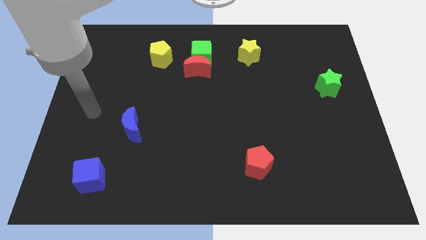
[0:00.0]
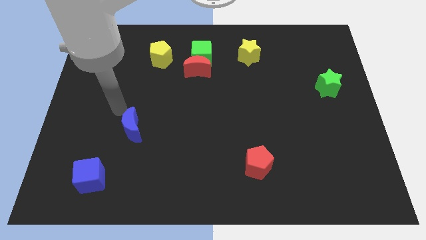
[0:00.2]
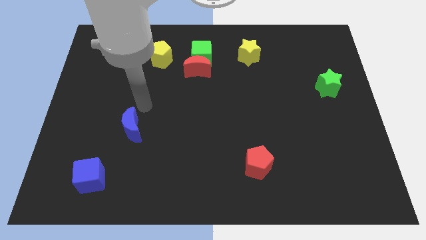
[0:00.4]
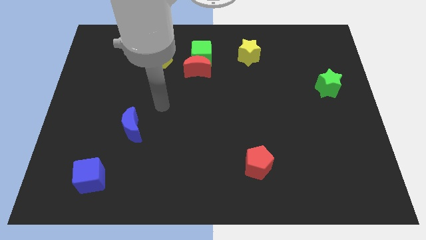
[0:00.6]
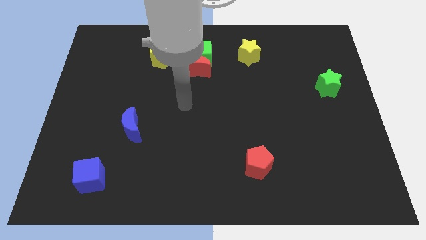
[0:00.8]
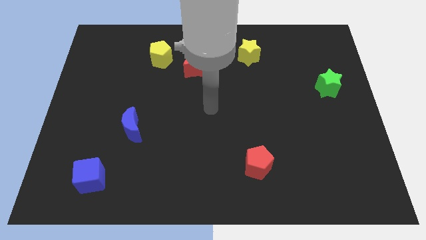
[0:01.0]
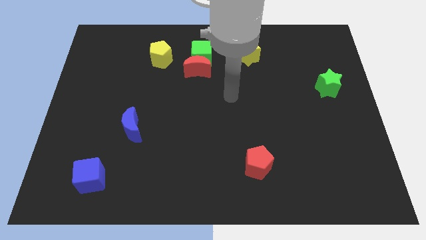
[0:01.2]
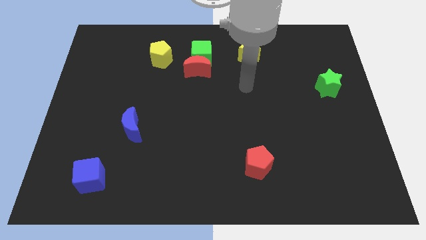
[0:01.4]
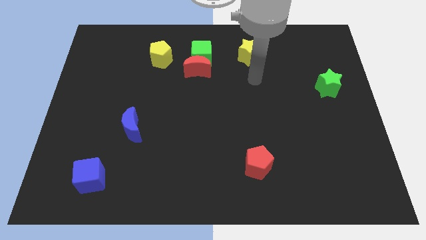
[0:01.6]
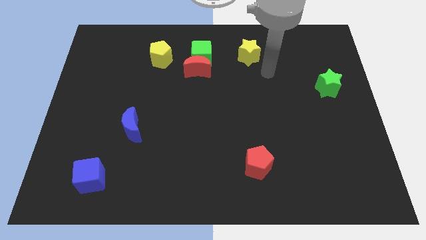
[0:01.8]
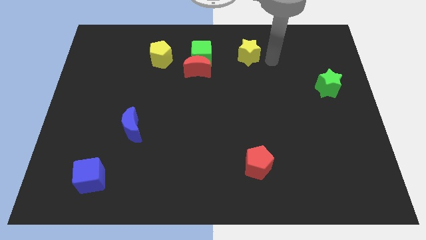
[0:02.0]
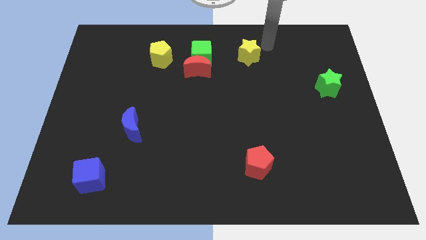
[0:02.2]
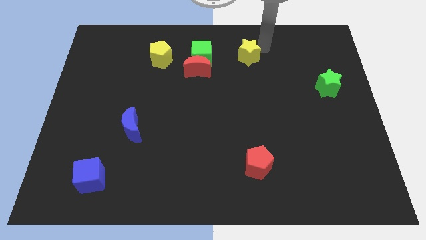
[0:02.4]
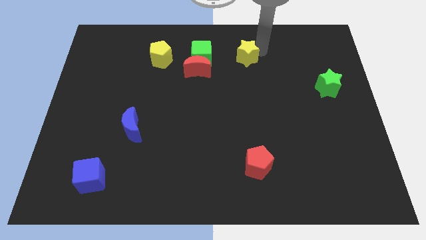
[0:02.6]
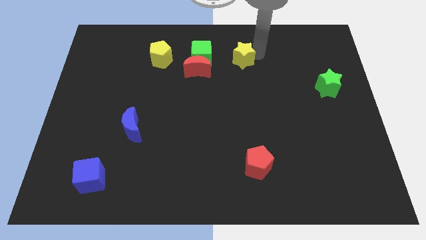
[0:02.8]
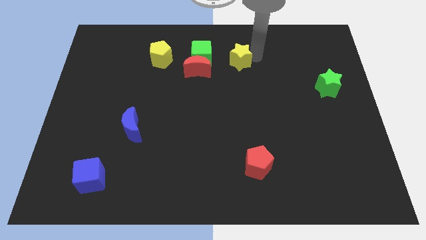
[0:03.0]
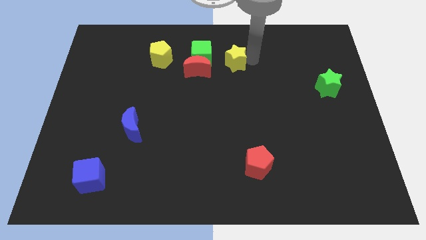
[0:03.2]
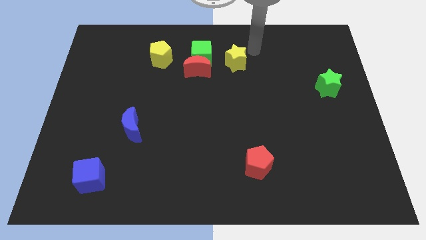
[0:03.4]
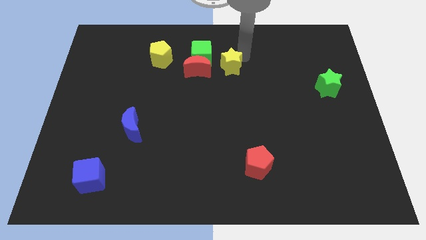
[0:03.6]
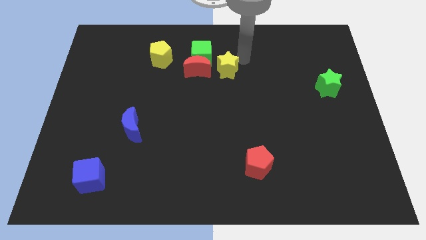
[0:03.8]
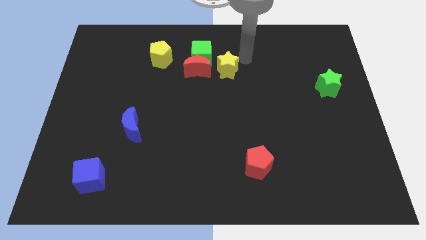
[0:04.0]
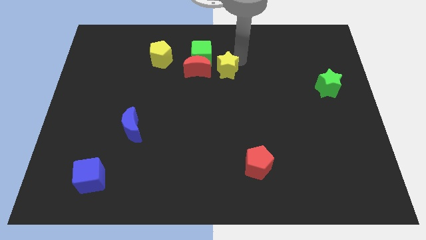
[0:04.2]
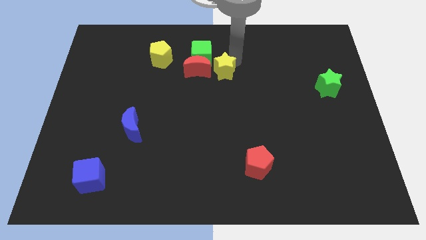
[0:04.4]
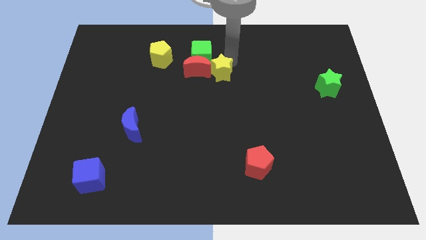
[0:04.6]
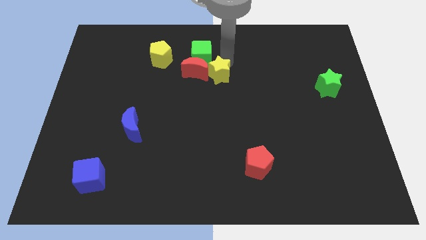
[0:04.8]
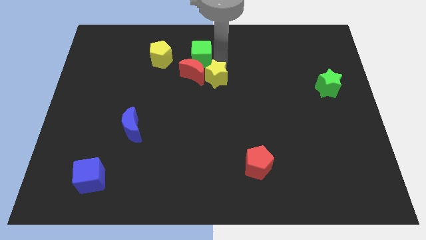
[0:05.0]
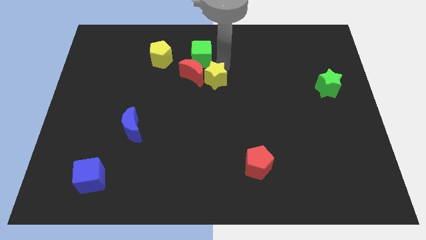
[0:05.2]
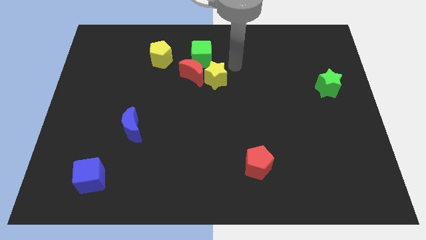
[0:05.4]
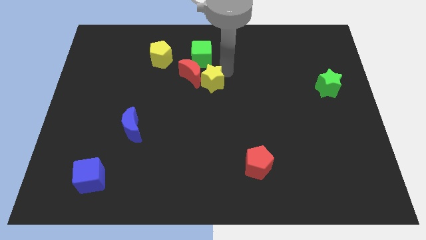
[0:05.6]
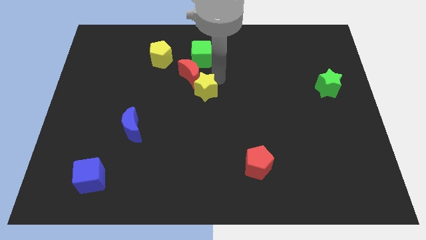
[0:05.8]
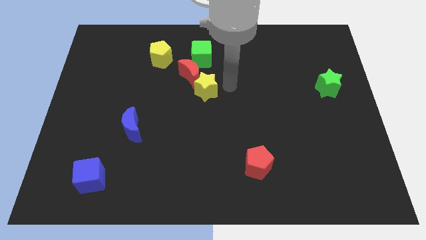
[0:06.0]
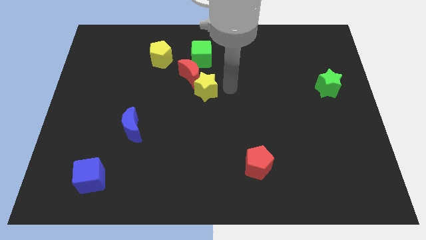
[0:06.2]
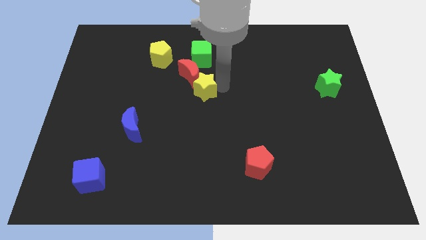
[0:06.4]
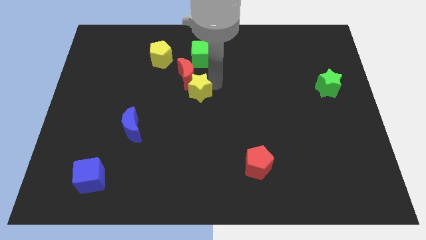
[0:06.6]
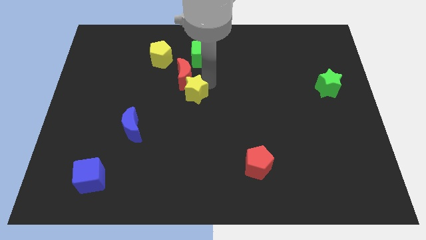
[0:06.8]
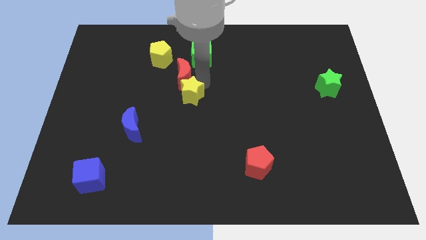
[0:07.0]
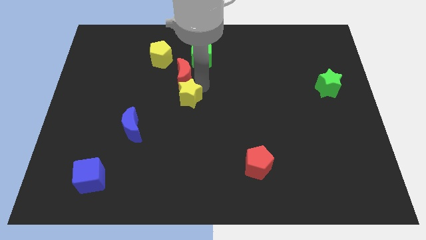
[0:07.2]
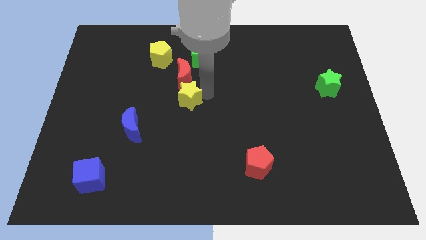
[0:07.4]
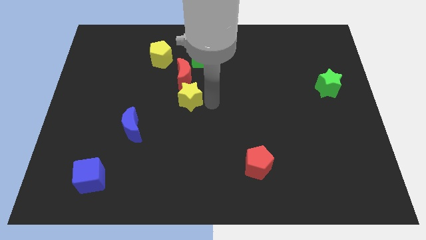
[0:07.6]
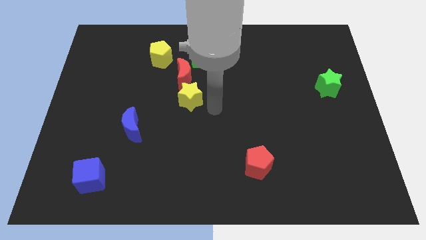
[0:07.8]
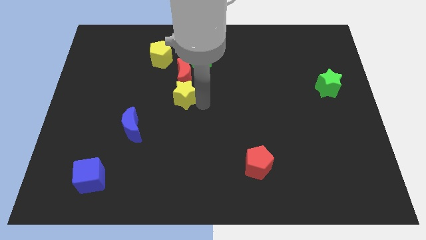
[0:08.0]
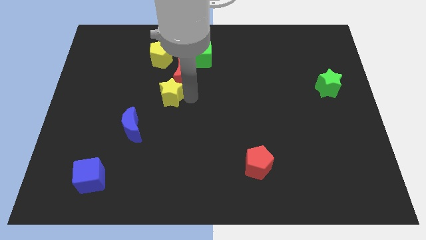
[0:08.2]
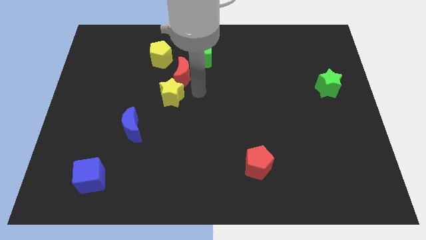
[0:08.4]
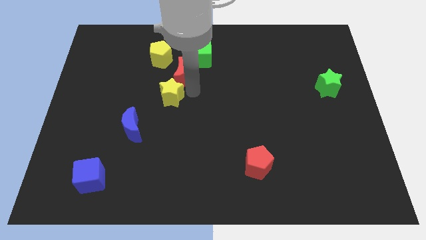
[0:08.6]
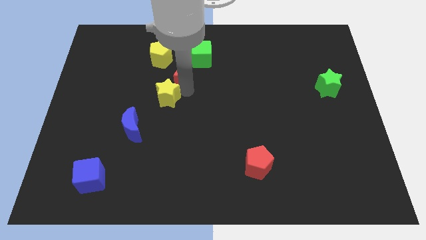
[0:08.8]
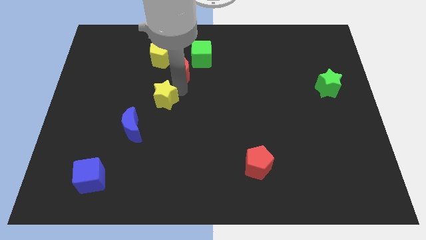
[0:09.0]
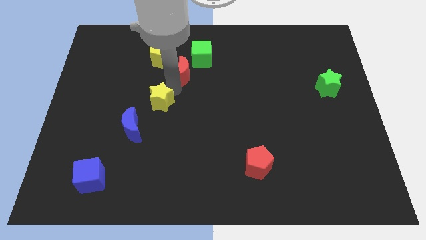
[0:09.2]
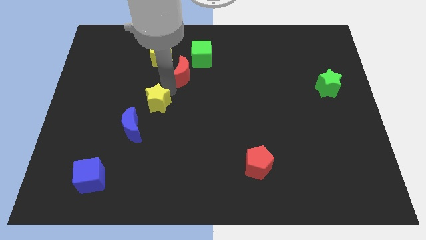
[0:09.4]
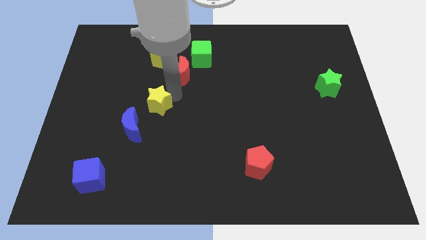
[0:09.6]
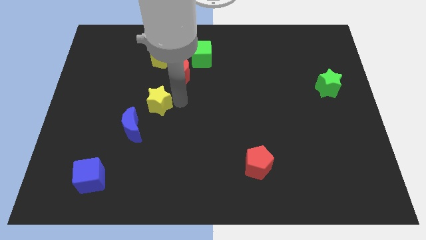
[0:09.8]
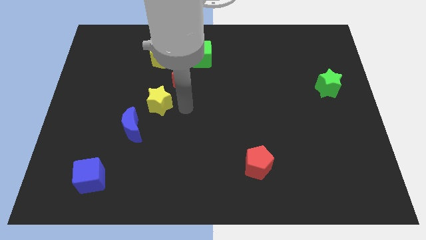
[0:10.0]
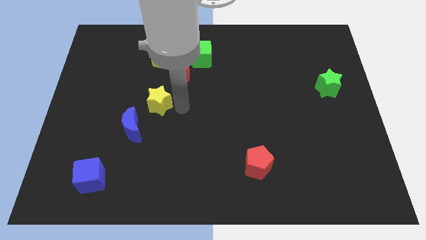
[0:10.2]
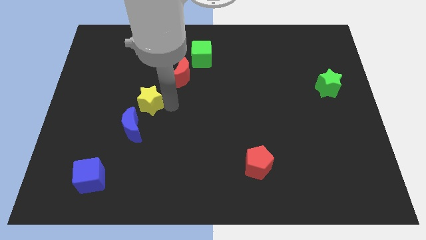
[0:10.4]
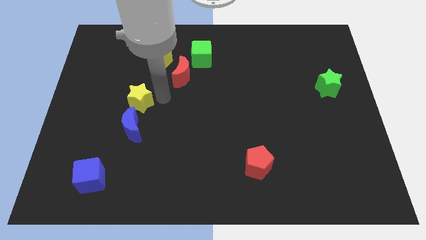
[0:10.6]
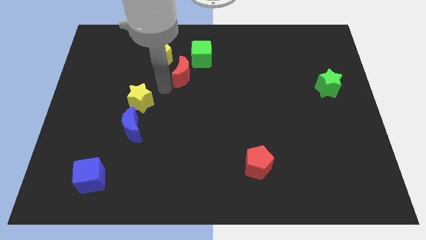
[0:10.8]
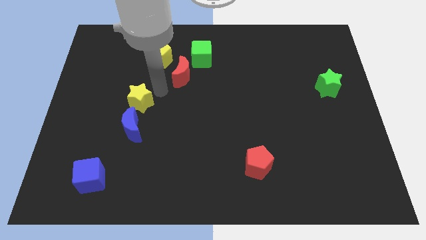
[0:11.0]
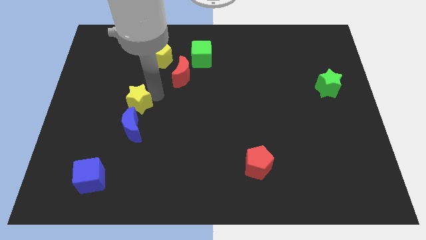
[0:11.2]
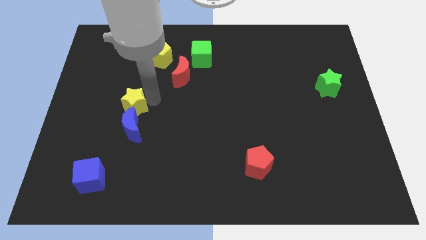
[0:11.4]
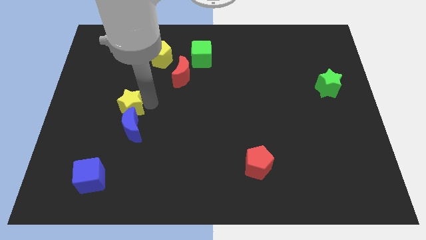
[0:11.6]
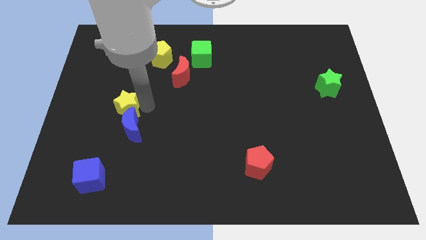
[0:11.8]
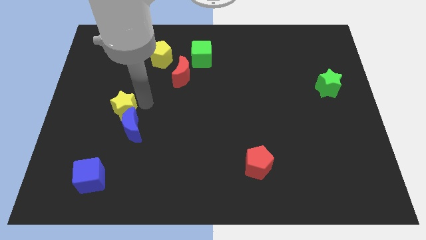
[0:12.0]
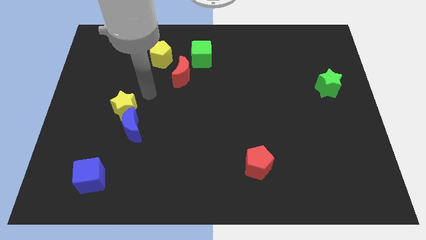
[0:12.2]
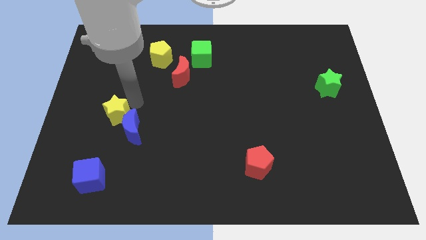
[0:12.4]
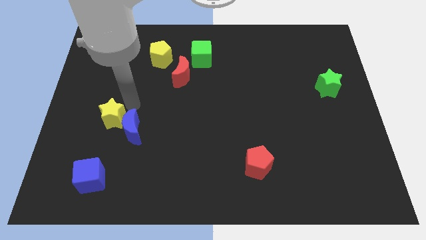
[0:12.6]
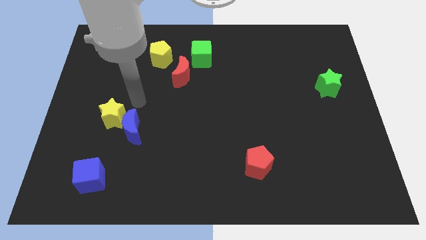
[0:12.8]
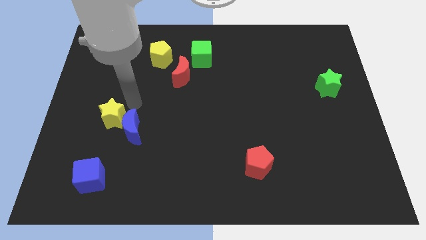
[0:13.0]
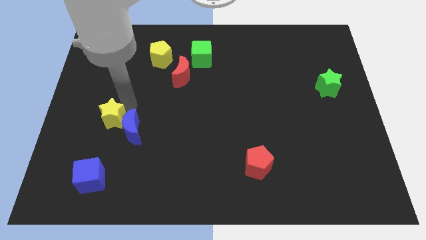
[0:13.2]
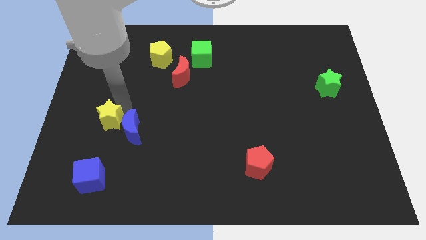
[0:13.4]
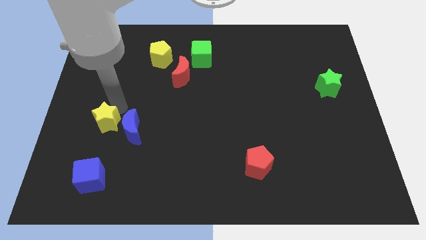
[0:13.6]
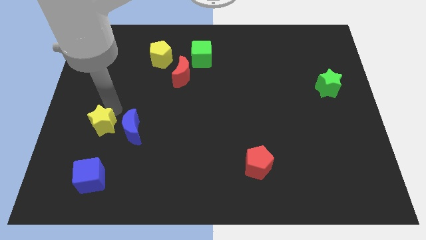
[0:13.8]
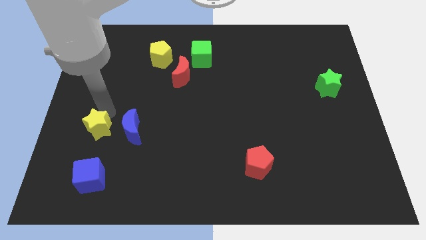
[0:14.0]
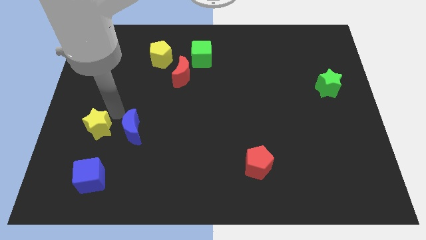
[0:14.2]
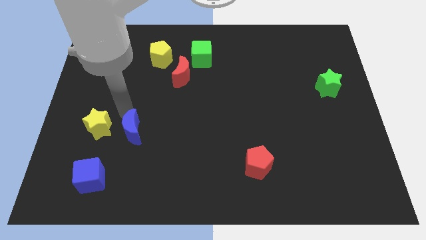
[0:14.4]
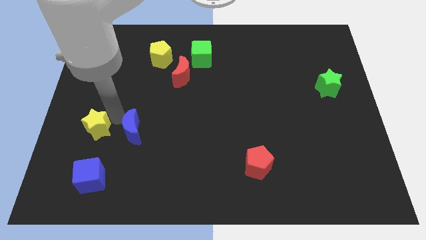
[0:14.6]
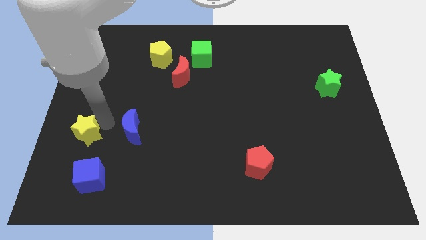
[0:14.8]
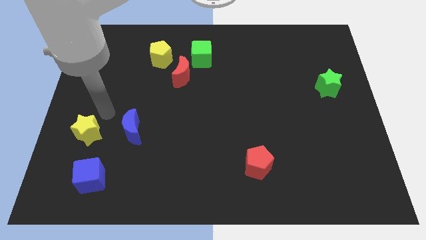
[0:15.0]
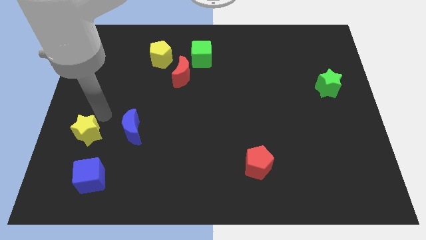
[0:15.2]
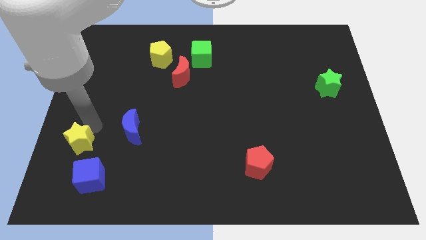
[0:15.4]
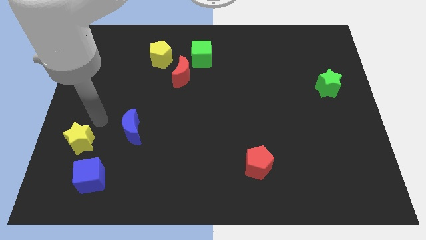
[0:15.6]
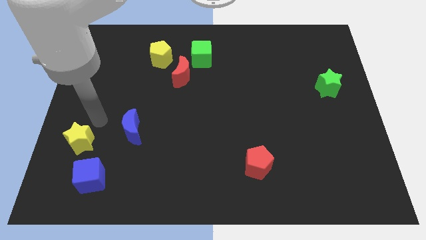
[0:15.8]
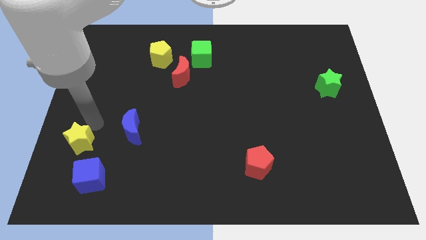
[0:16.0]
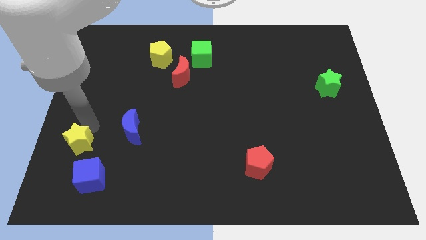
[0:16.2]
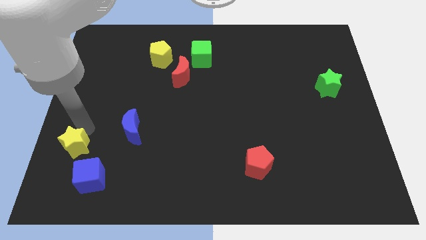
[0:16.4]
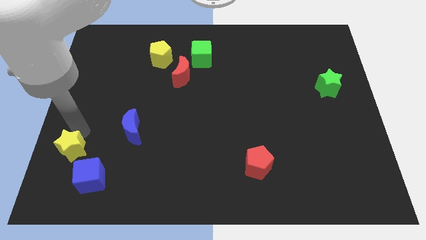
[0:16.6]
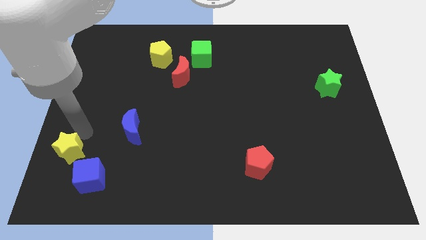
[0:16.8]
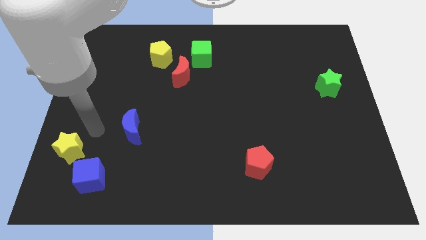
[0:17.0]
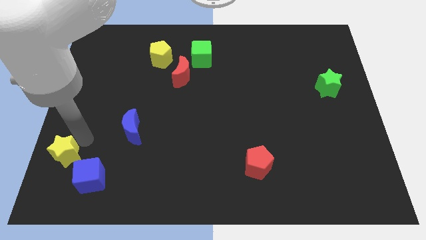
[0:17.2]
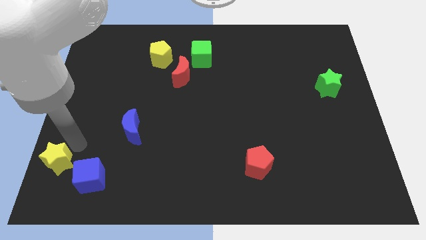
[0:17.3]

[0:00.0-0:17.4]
slide the yellow star to the lower left corner
